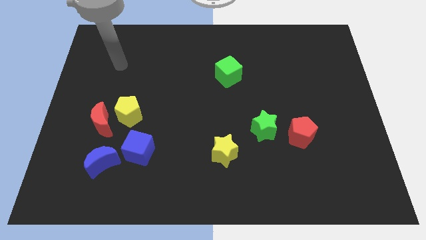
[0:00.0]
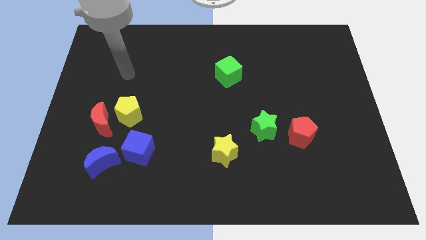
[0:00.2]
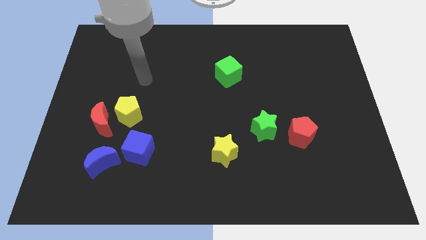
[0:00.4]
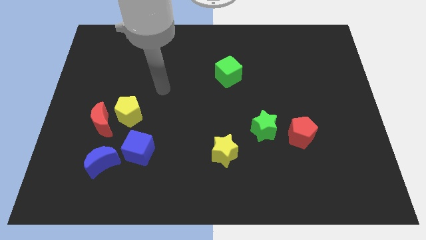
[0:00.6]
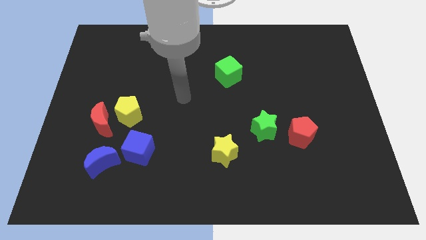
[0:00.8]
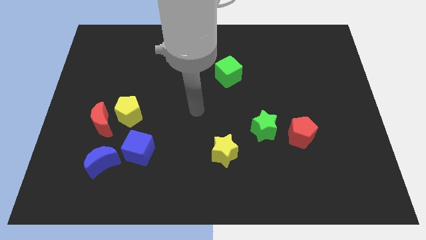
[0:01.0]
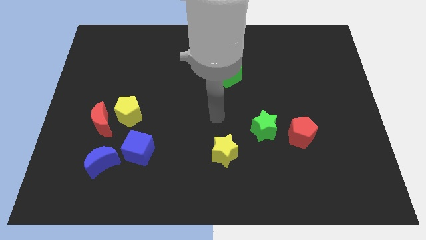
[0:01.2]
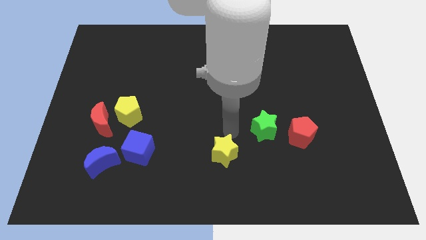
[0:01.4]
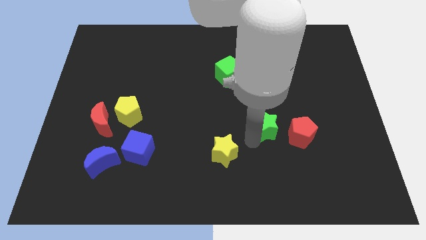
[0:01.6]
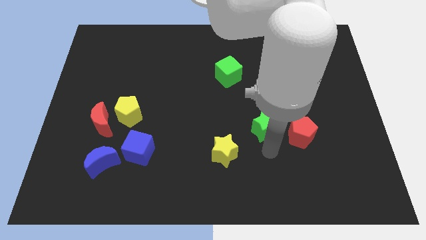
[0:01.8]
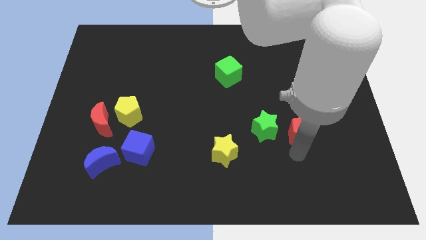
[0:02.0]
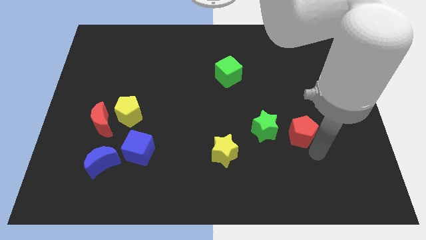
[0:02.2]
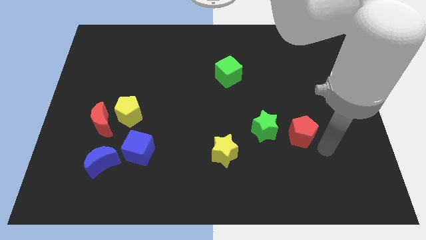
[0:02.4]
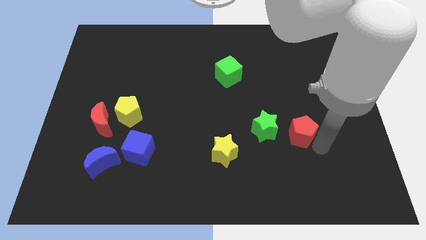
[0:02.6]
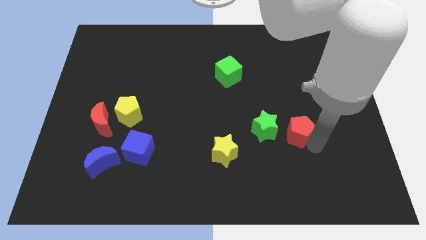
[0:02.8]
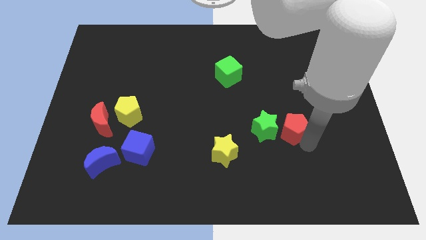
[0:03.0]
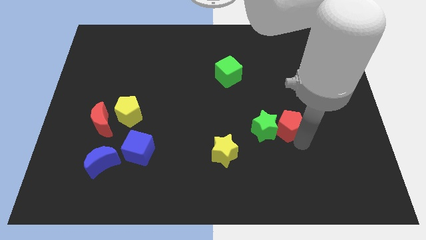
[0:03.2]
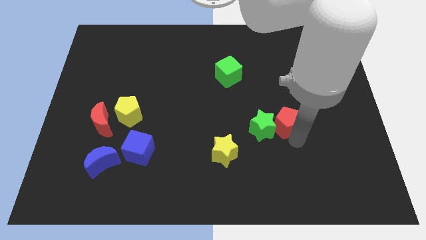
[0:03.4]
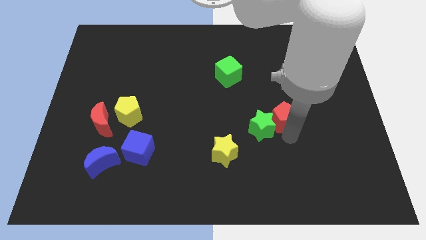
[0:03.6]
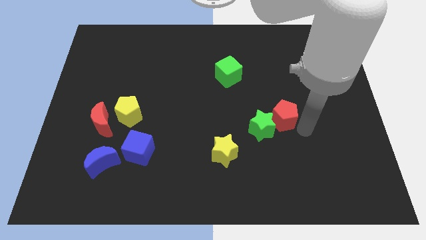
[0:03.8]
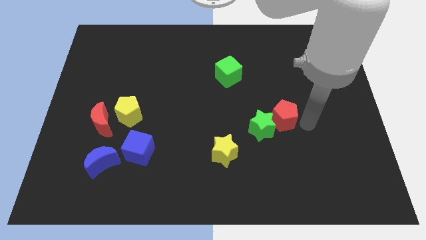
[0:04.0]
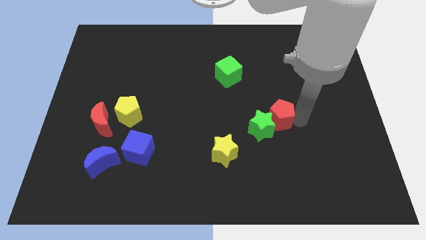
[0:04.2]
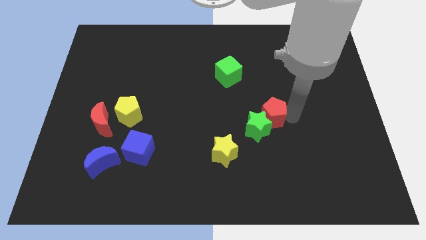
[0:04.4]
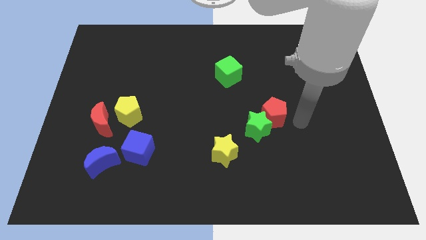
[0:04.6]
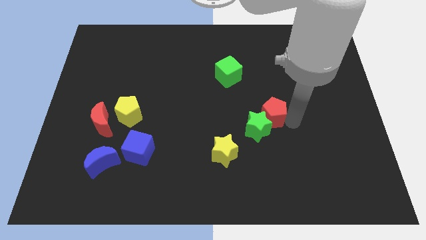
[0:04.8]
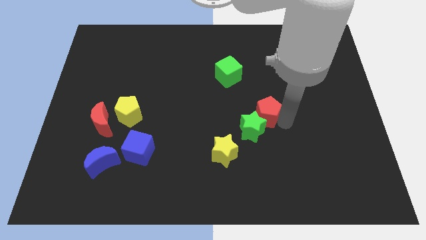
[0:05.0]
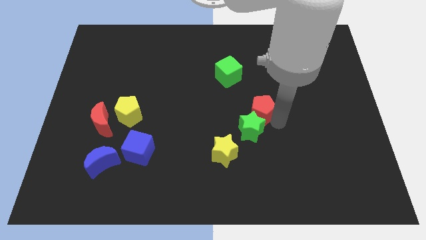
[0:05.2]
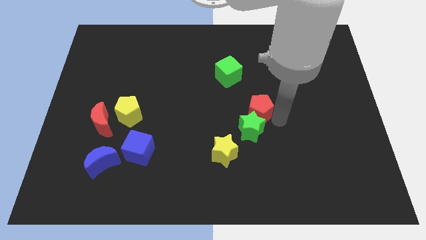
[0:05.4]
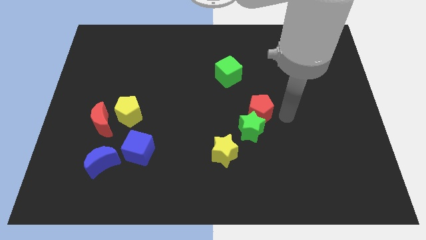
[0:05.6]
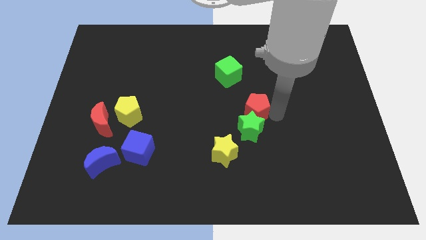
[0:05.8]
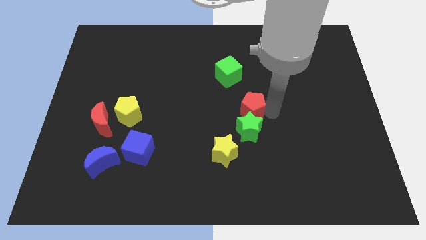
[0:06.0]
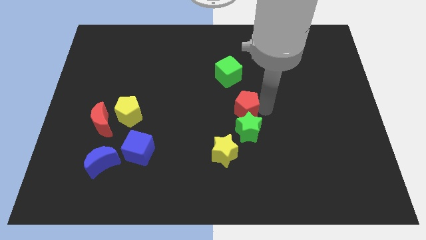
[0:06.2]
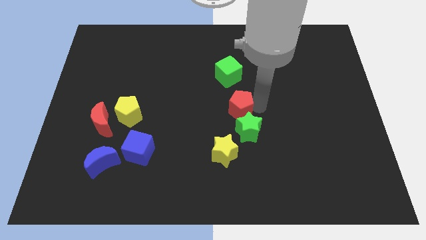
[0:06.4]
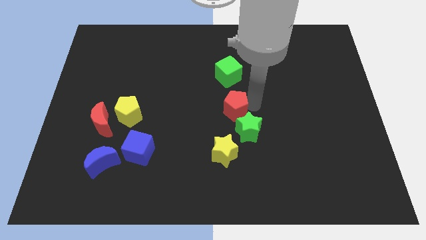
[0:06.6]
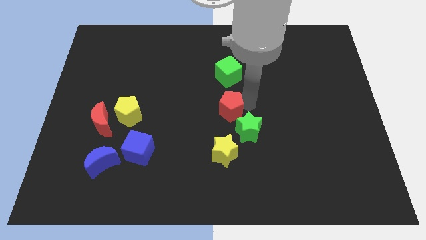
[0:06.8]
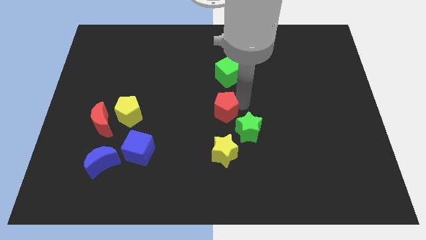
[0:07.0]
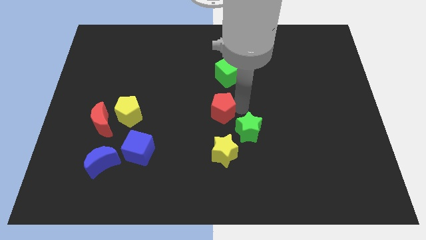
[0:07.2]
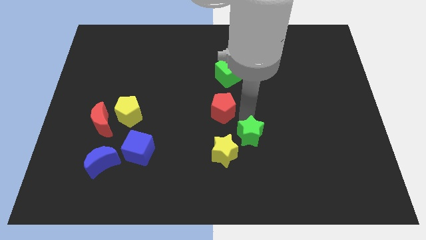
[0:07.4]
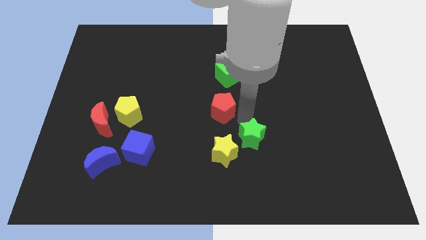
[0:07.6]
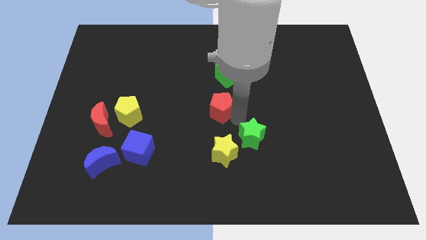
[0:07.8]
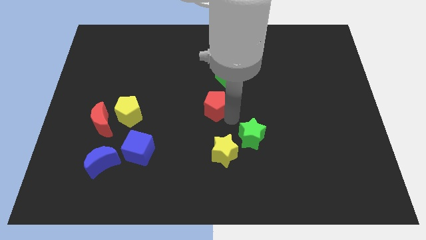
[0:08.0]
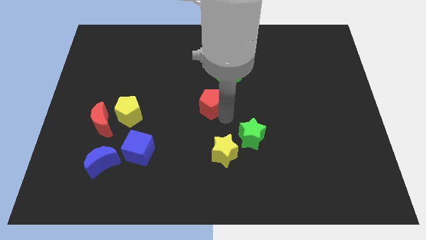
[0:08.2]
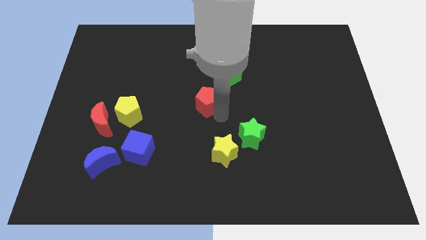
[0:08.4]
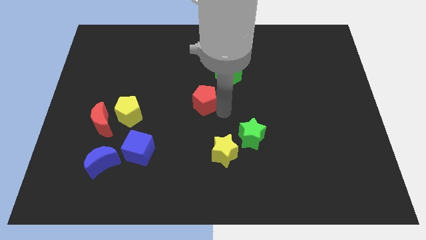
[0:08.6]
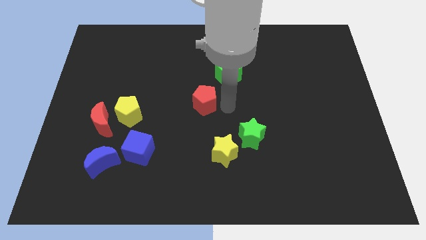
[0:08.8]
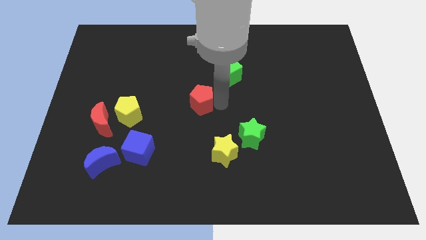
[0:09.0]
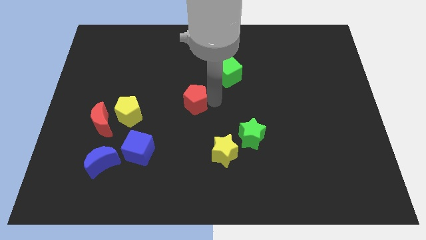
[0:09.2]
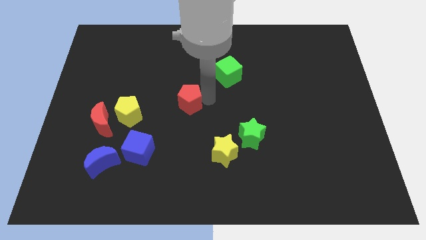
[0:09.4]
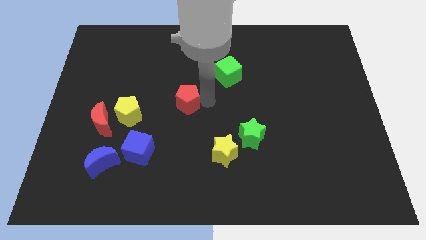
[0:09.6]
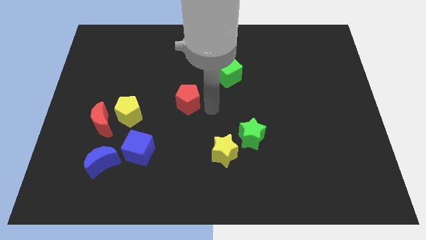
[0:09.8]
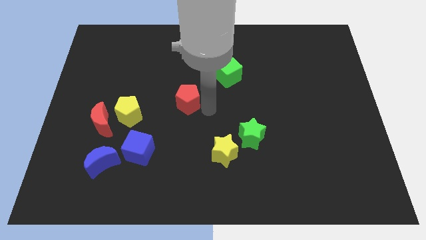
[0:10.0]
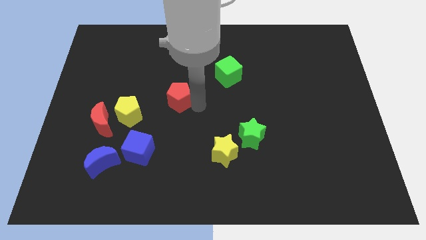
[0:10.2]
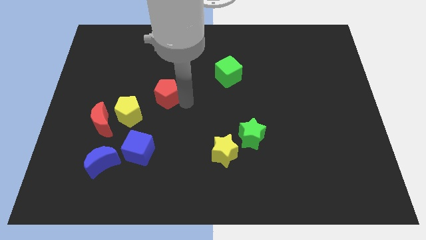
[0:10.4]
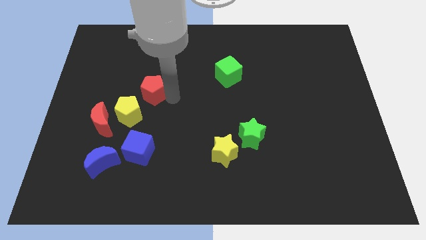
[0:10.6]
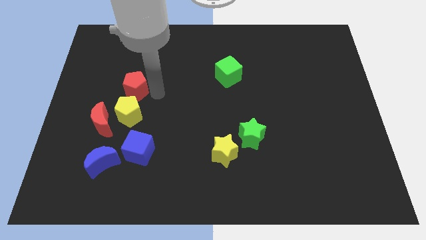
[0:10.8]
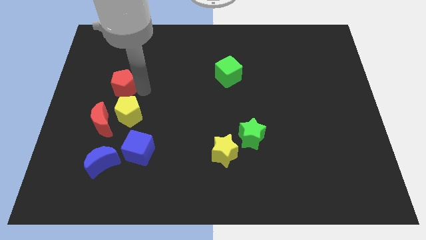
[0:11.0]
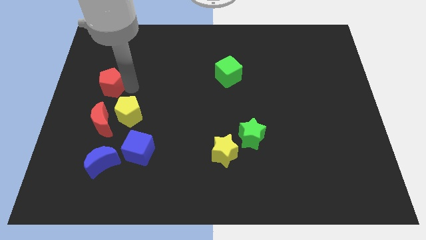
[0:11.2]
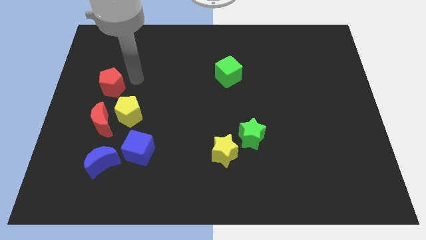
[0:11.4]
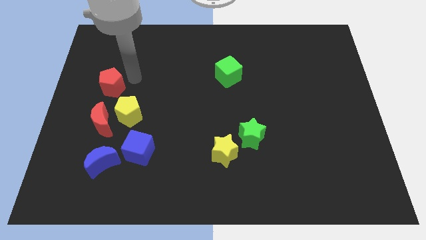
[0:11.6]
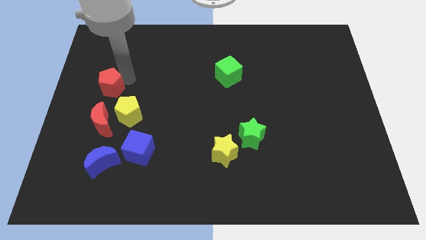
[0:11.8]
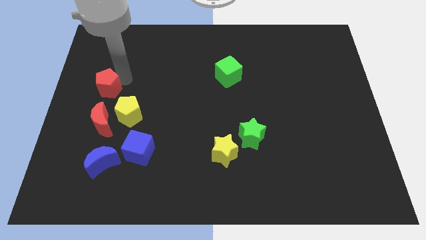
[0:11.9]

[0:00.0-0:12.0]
slide the red pentagon to the left side of the board

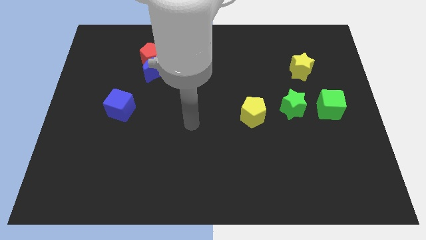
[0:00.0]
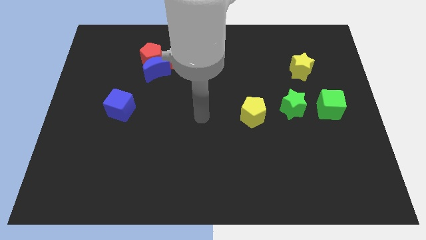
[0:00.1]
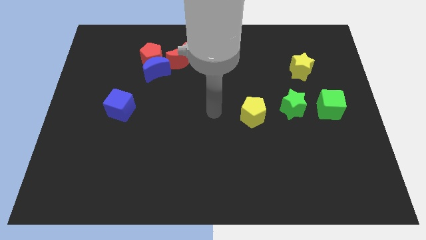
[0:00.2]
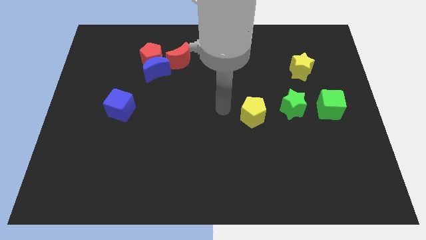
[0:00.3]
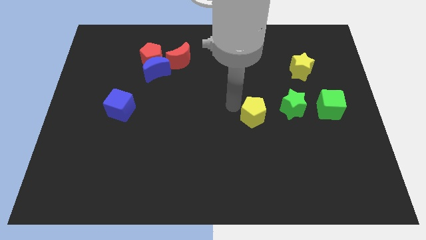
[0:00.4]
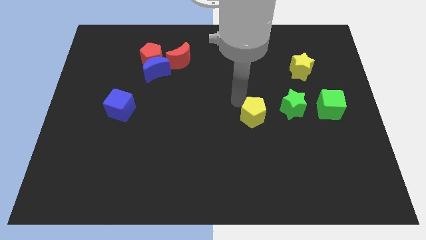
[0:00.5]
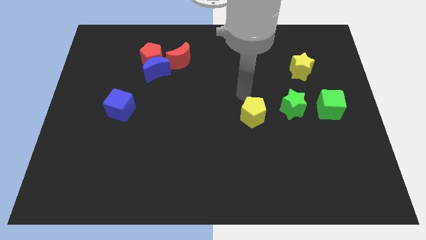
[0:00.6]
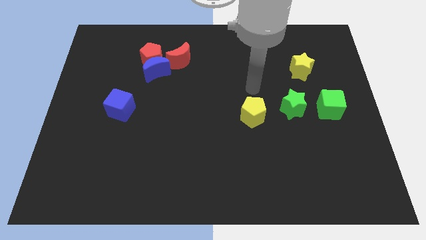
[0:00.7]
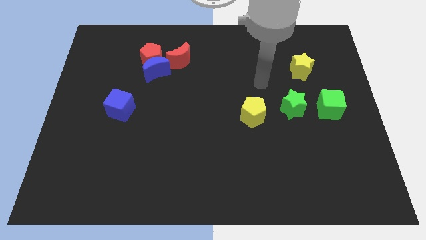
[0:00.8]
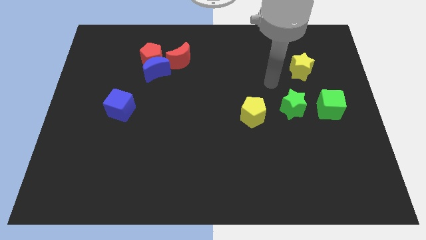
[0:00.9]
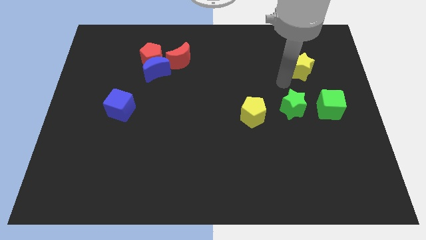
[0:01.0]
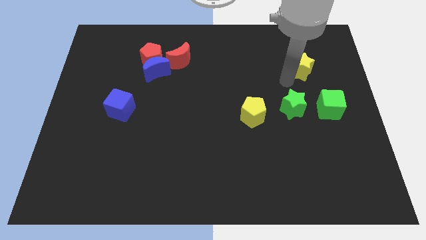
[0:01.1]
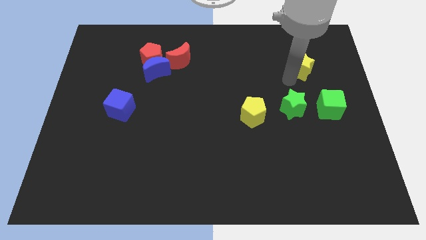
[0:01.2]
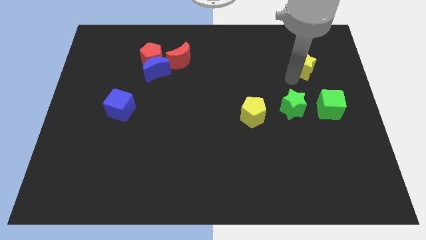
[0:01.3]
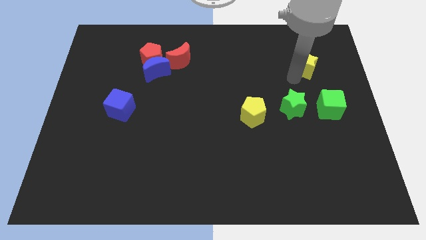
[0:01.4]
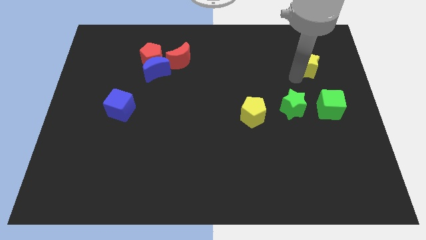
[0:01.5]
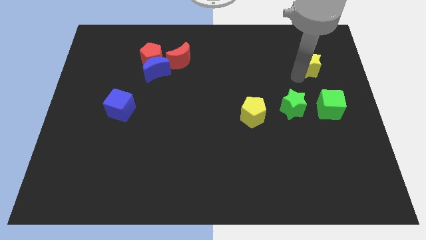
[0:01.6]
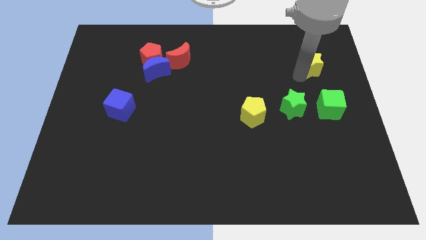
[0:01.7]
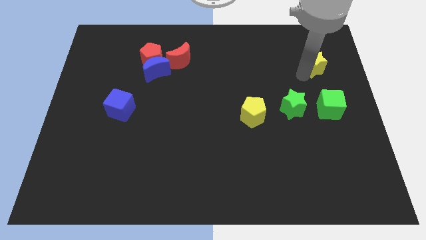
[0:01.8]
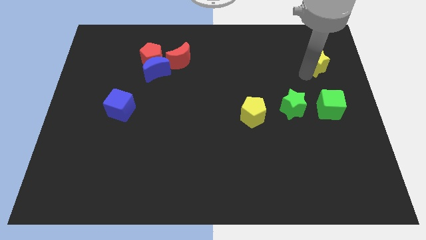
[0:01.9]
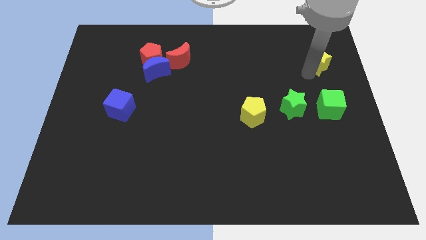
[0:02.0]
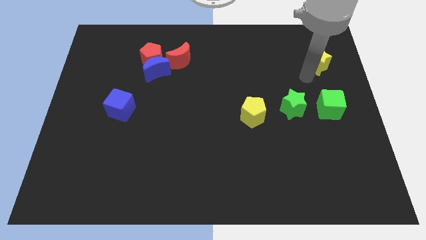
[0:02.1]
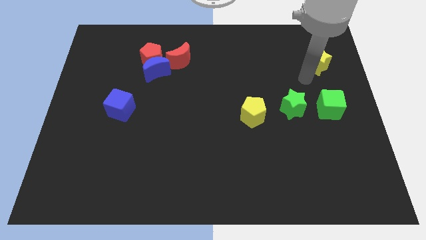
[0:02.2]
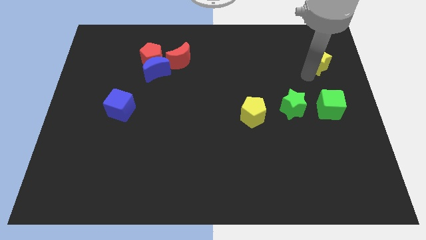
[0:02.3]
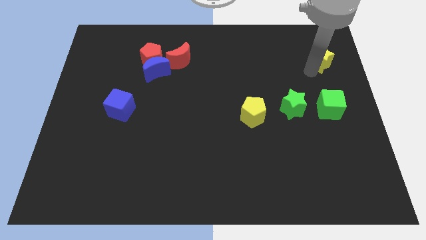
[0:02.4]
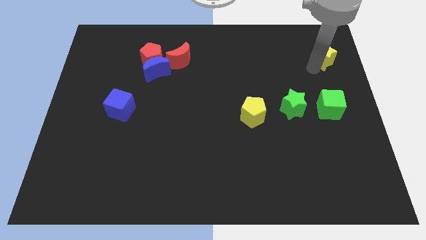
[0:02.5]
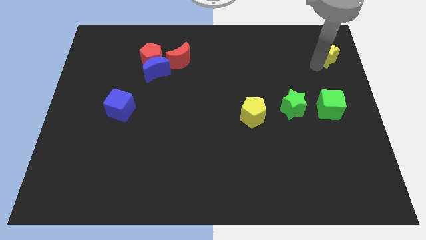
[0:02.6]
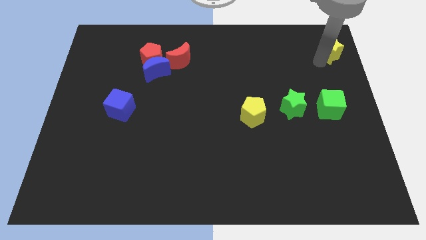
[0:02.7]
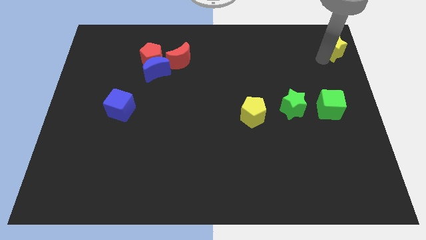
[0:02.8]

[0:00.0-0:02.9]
put the yellow star to the upper right corner
